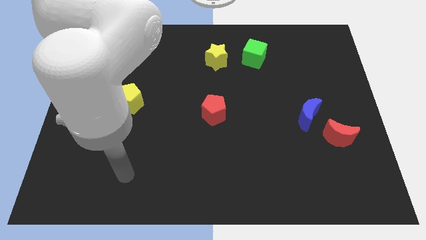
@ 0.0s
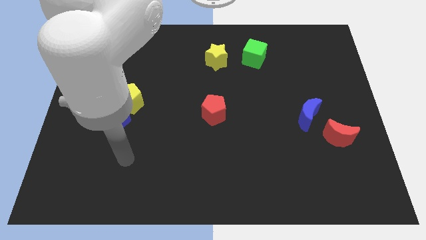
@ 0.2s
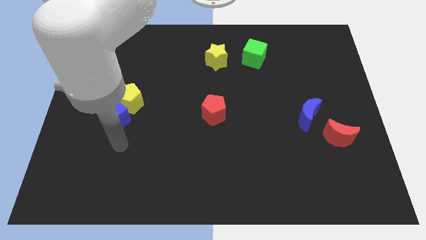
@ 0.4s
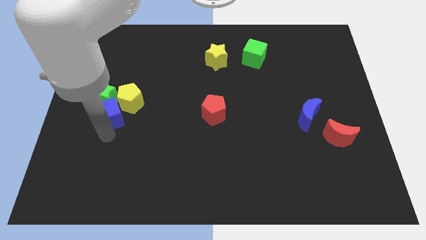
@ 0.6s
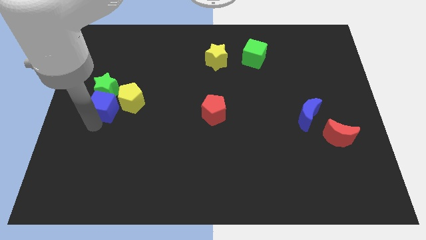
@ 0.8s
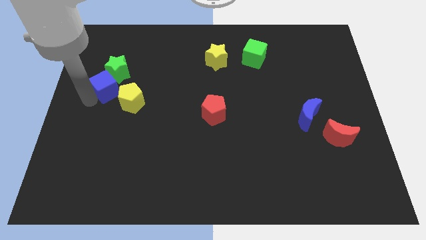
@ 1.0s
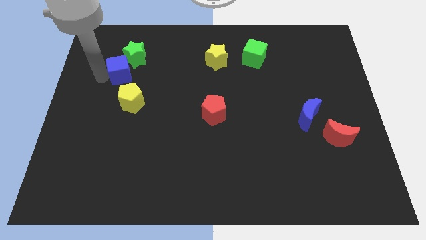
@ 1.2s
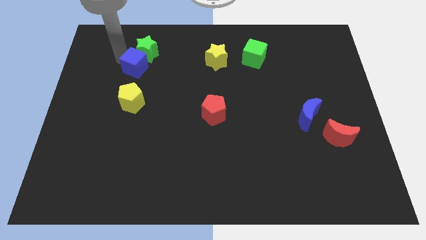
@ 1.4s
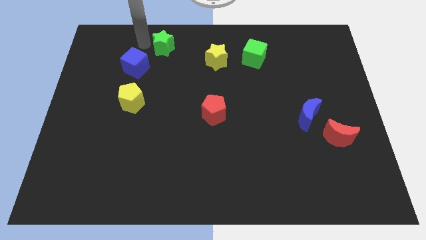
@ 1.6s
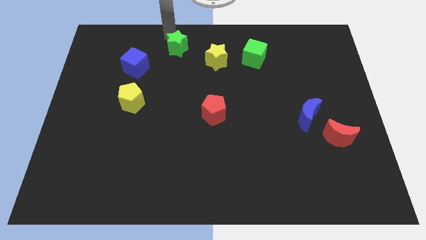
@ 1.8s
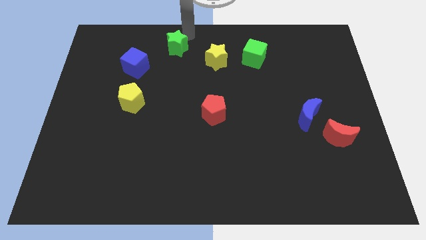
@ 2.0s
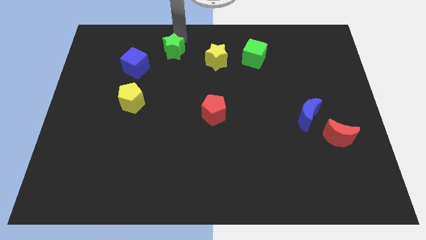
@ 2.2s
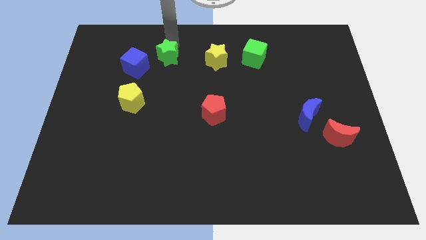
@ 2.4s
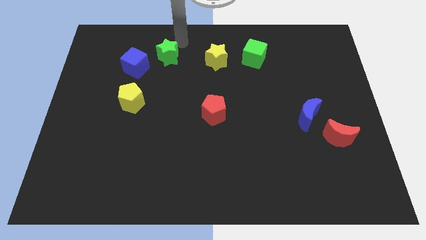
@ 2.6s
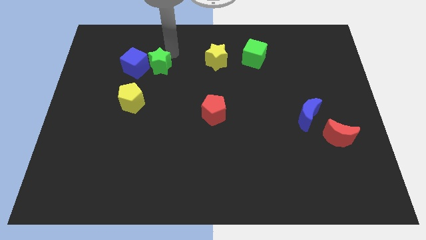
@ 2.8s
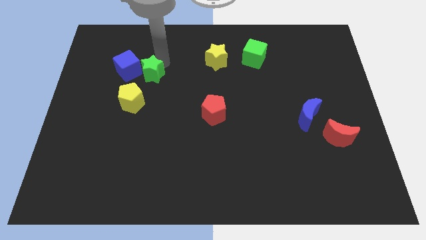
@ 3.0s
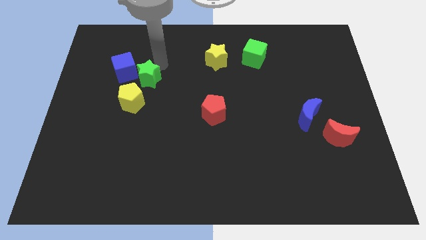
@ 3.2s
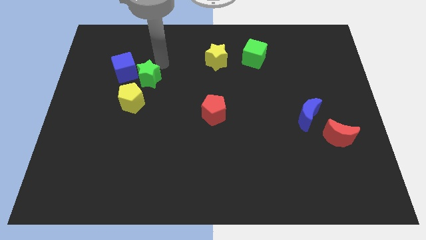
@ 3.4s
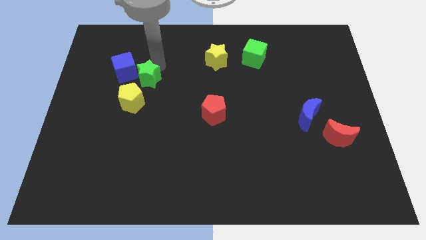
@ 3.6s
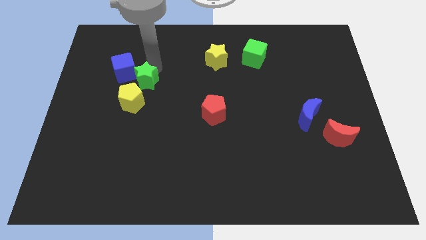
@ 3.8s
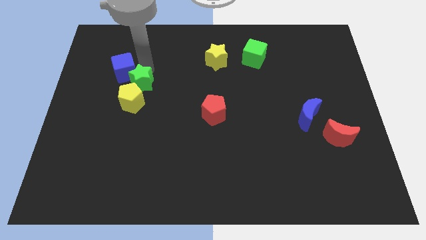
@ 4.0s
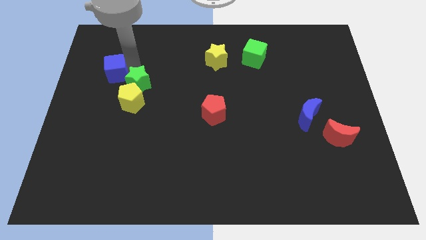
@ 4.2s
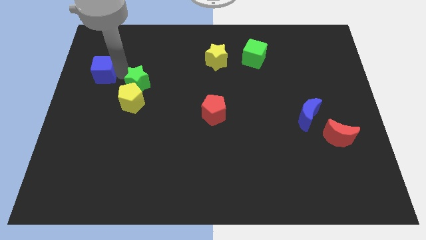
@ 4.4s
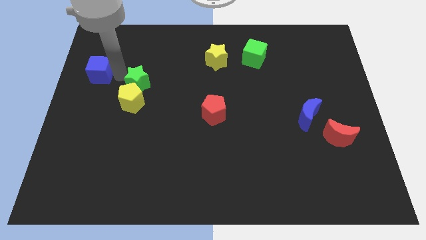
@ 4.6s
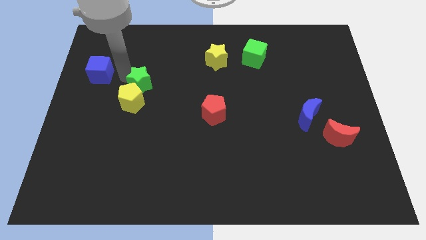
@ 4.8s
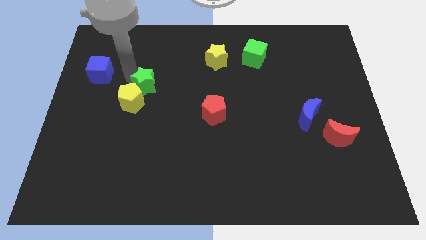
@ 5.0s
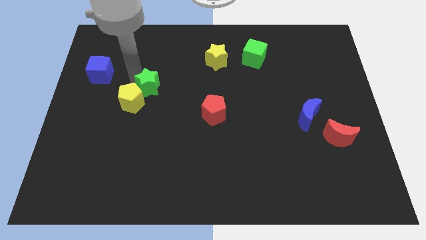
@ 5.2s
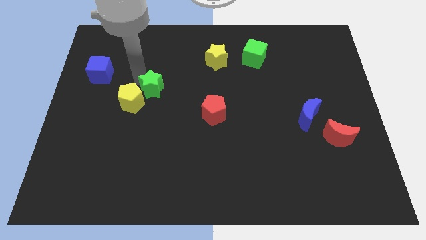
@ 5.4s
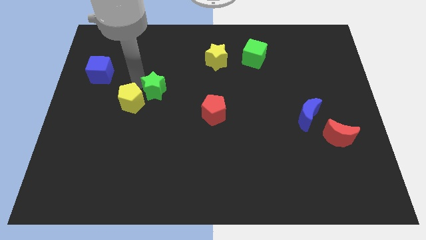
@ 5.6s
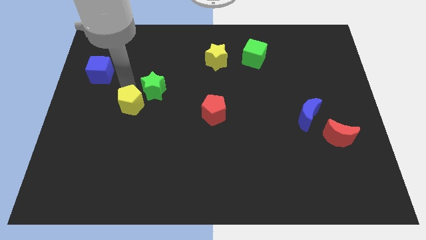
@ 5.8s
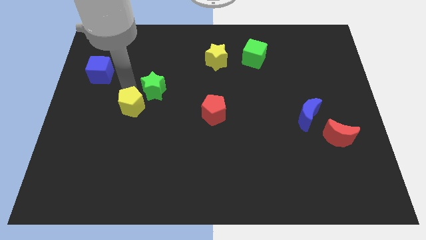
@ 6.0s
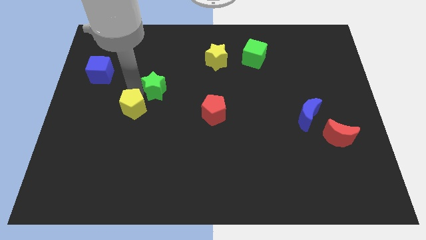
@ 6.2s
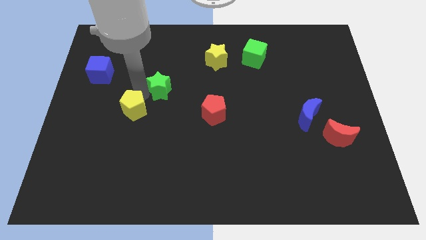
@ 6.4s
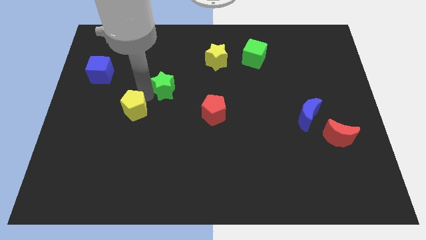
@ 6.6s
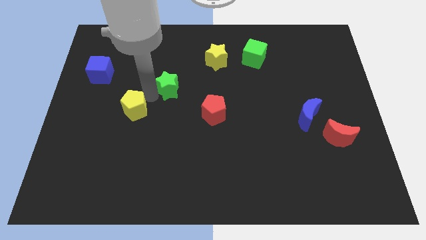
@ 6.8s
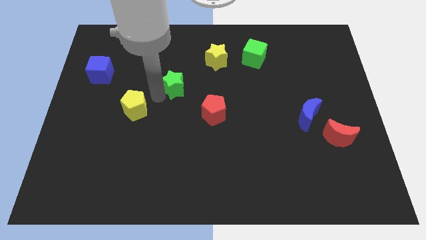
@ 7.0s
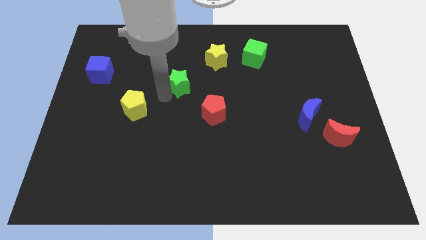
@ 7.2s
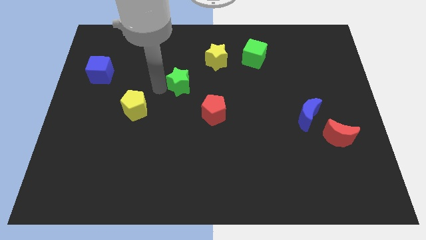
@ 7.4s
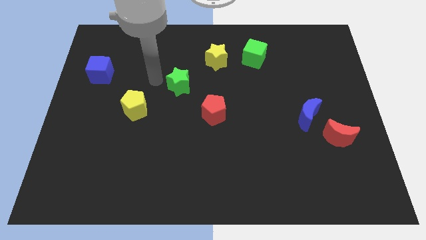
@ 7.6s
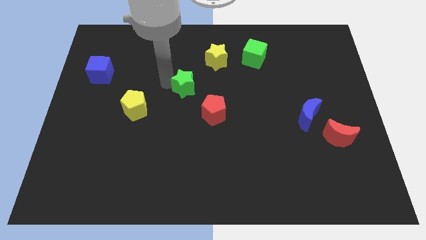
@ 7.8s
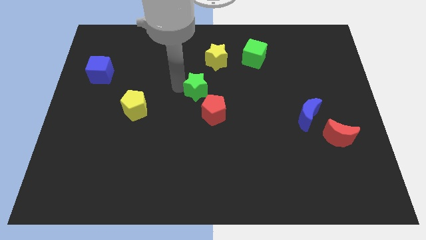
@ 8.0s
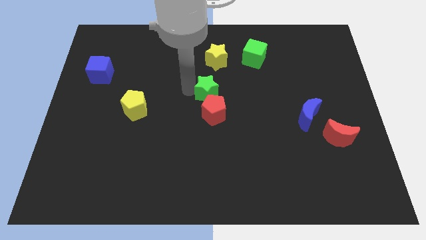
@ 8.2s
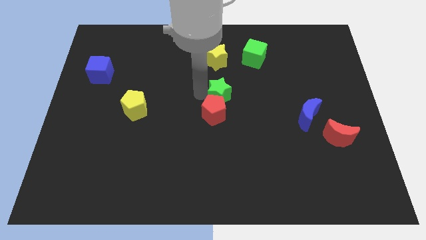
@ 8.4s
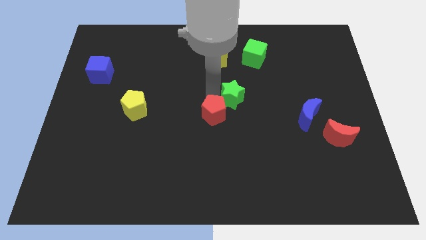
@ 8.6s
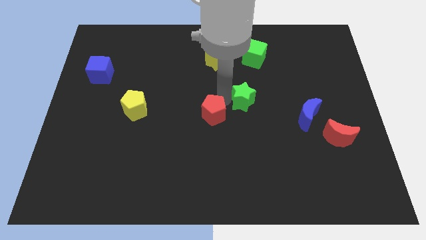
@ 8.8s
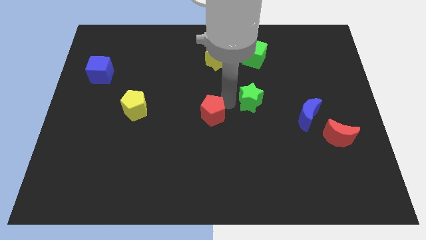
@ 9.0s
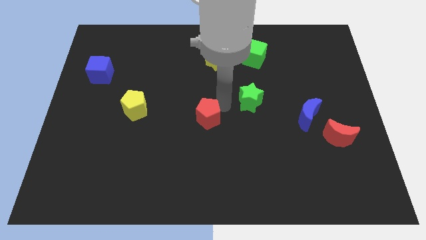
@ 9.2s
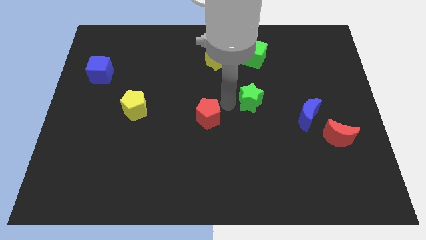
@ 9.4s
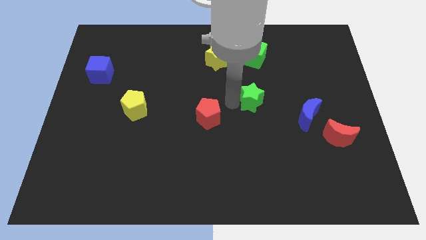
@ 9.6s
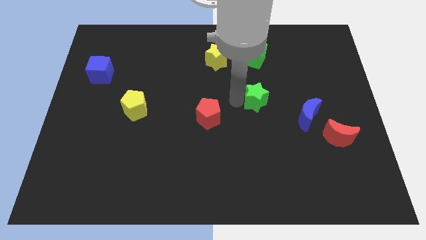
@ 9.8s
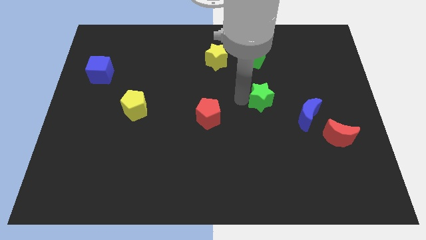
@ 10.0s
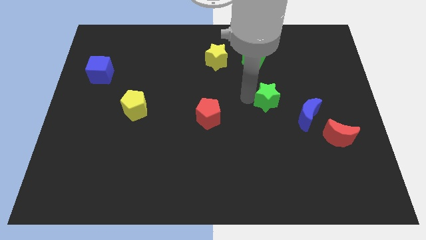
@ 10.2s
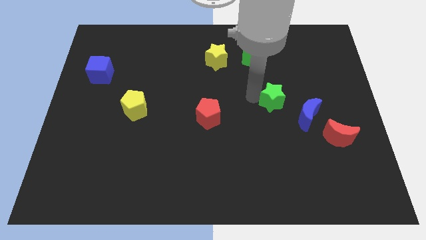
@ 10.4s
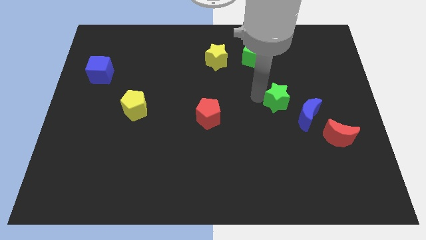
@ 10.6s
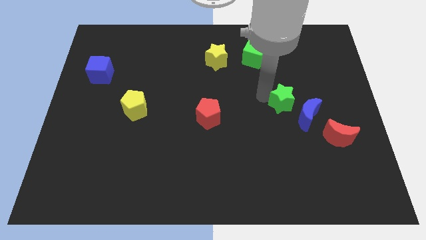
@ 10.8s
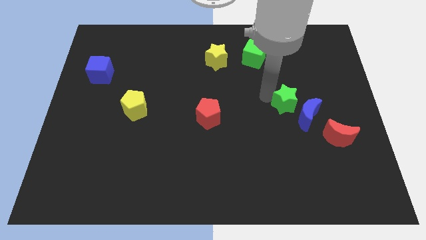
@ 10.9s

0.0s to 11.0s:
push the green star next to the blue moon

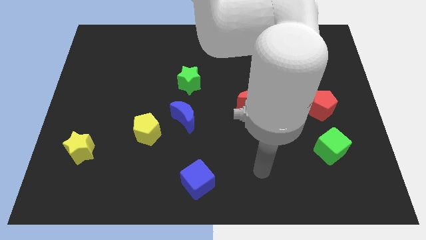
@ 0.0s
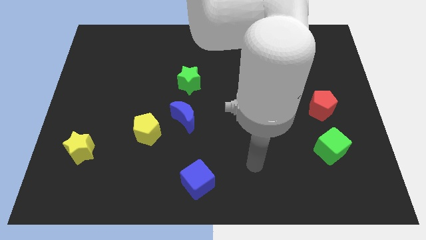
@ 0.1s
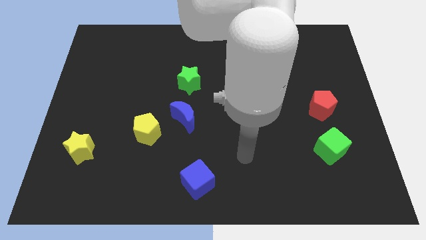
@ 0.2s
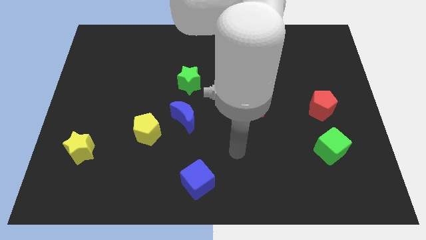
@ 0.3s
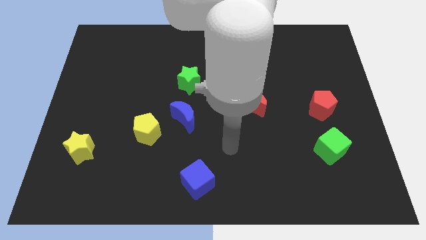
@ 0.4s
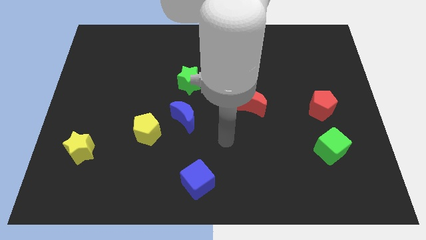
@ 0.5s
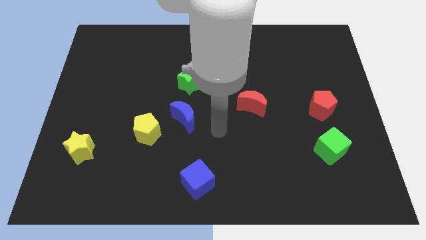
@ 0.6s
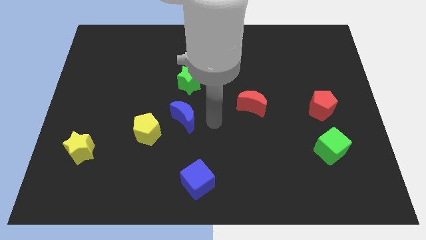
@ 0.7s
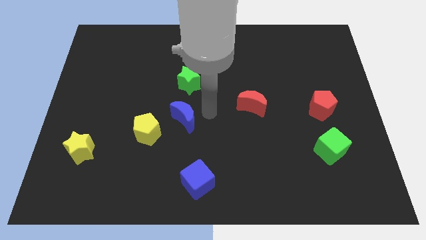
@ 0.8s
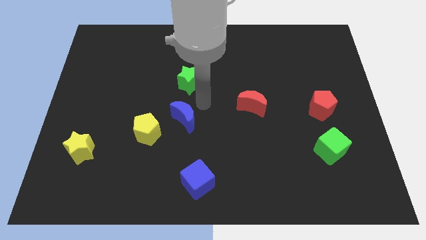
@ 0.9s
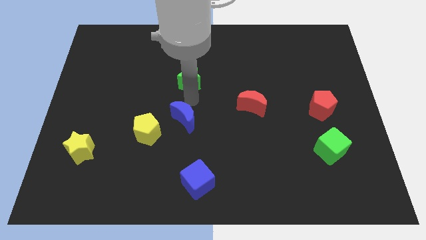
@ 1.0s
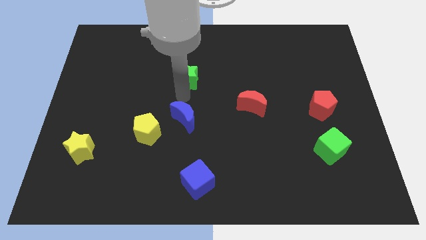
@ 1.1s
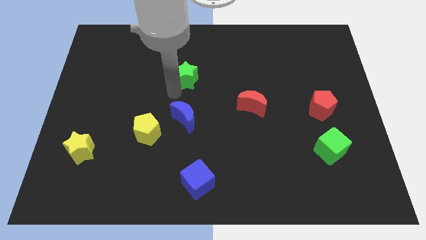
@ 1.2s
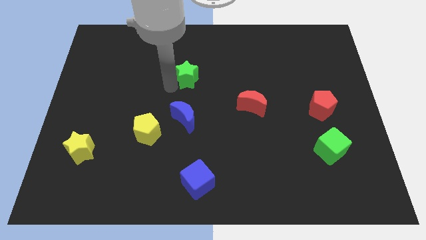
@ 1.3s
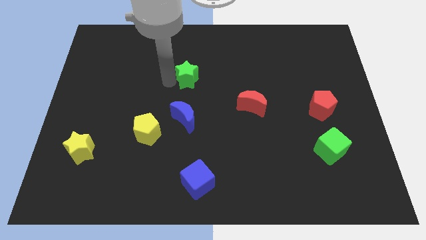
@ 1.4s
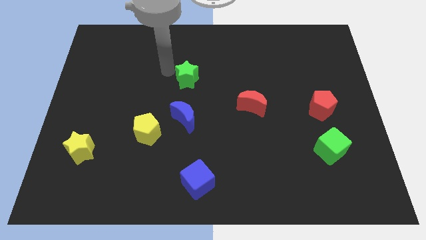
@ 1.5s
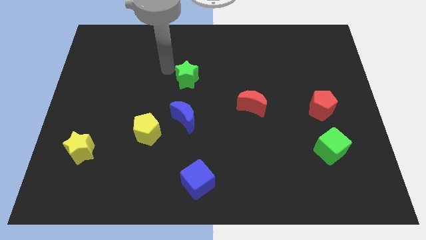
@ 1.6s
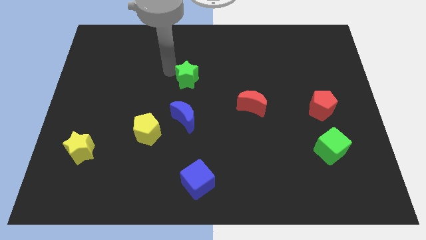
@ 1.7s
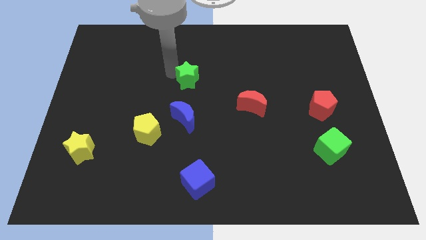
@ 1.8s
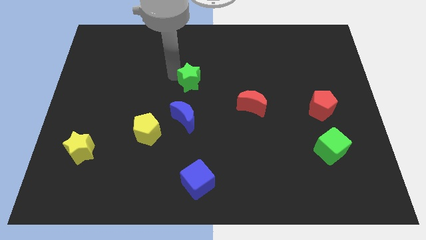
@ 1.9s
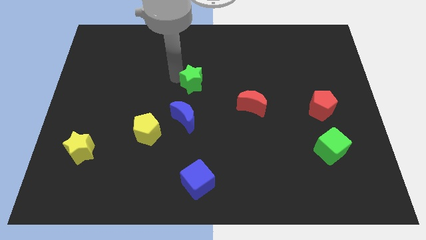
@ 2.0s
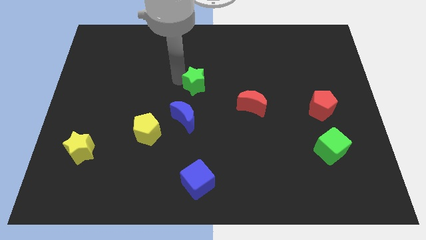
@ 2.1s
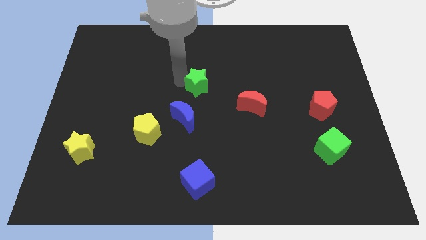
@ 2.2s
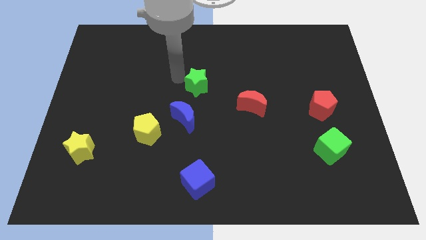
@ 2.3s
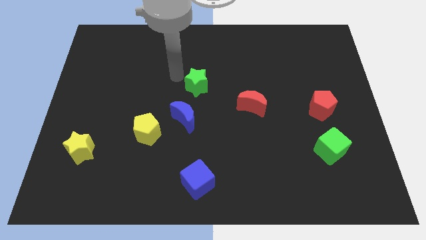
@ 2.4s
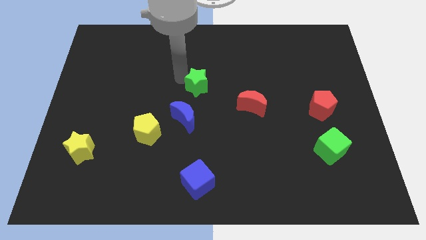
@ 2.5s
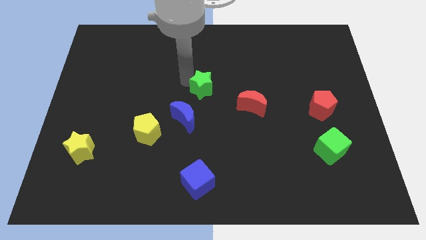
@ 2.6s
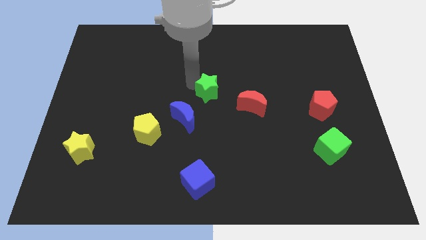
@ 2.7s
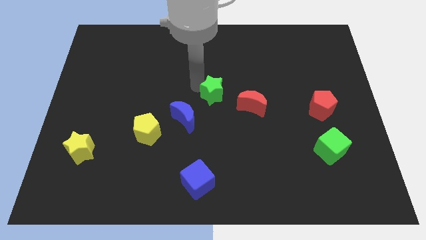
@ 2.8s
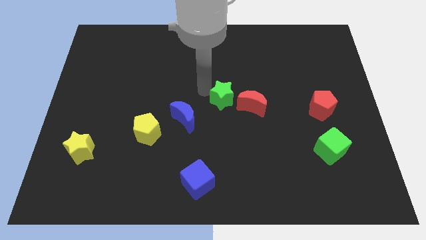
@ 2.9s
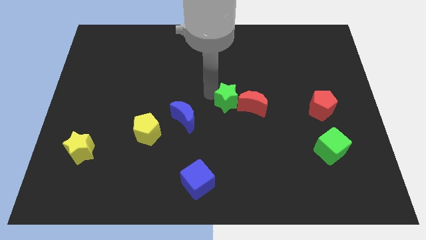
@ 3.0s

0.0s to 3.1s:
slide the green star towards the red moon
